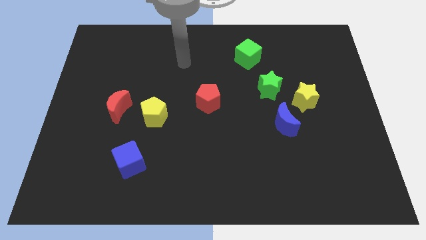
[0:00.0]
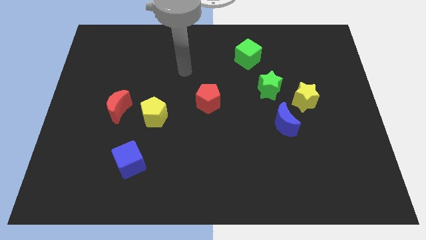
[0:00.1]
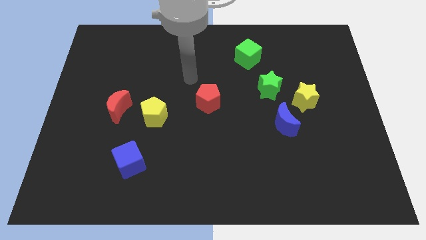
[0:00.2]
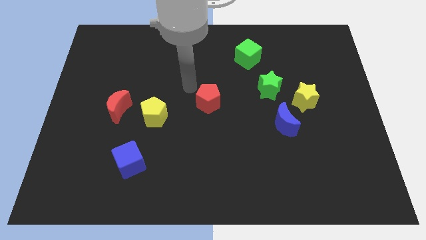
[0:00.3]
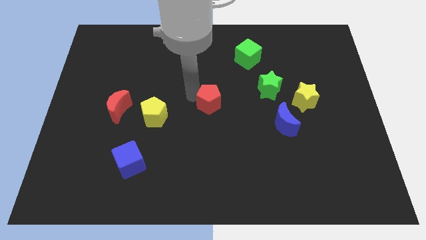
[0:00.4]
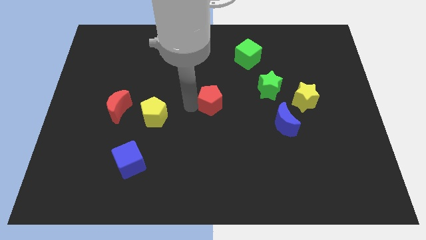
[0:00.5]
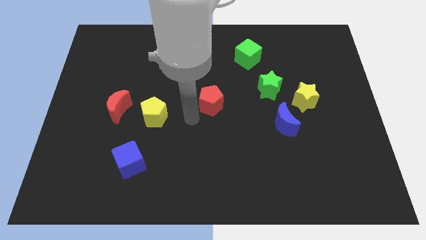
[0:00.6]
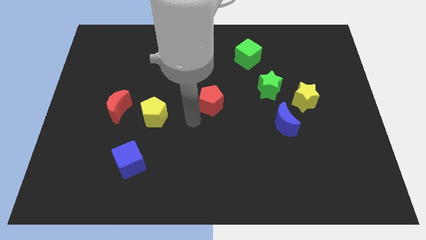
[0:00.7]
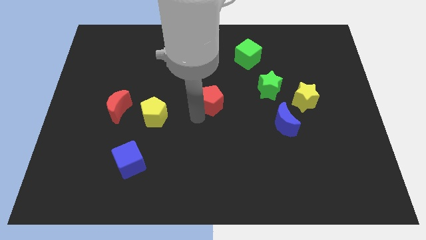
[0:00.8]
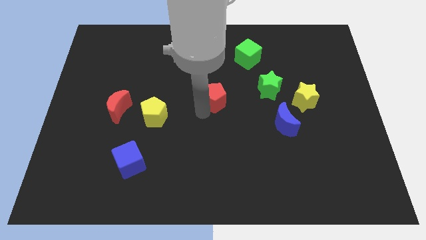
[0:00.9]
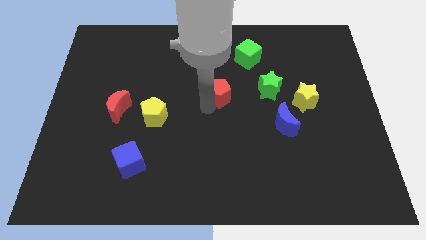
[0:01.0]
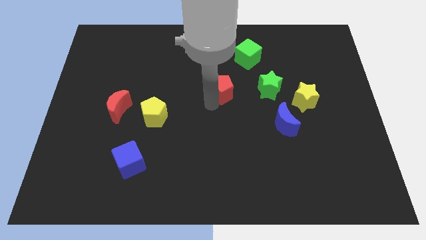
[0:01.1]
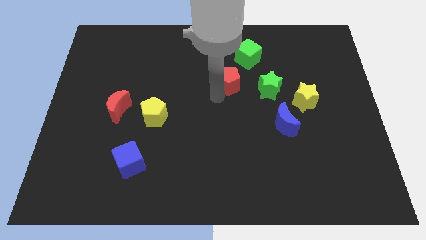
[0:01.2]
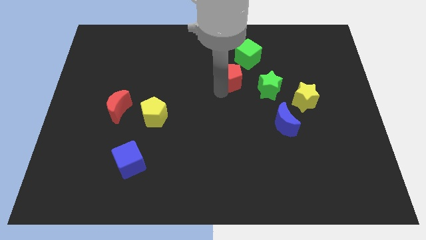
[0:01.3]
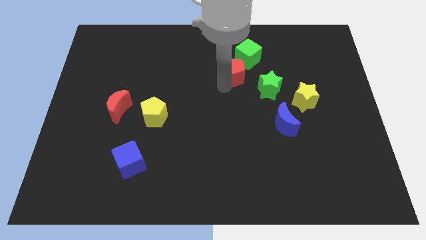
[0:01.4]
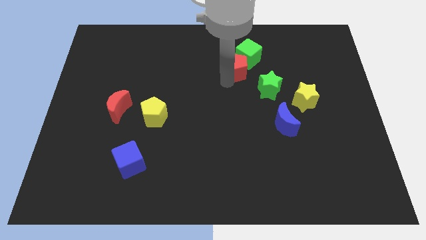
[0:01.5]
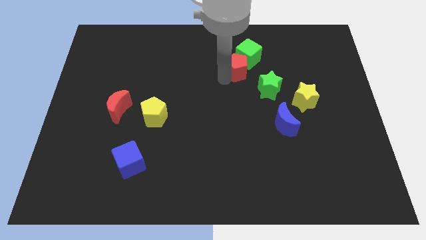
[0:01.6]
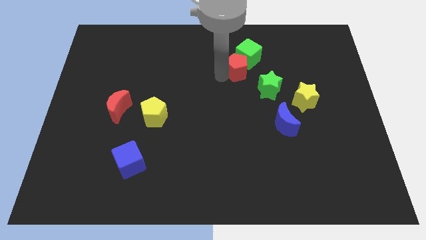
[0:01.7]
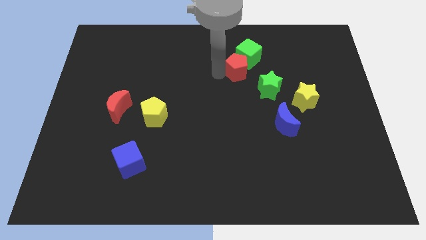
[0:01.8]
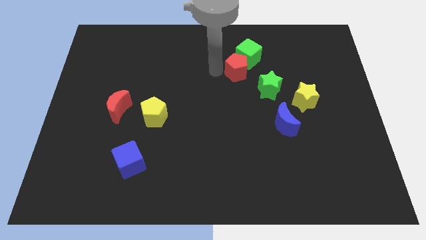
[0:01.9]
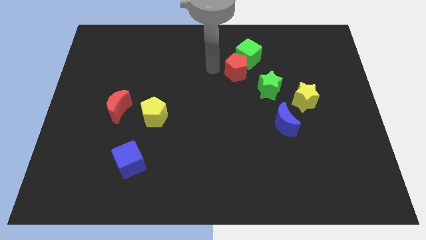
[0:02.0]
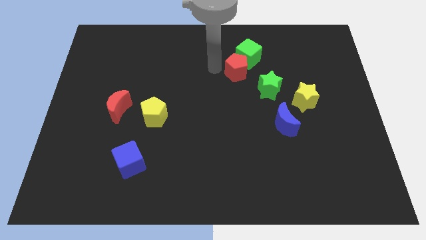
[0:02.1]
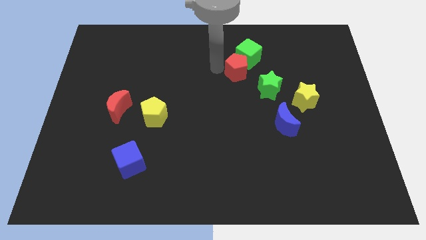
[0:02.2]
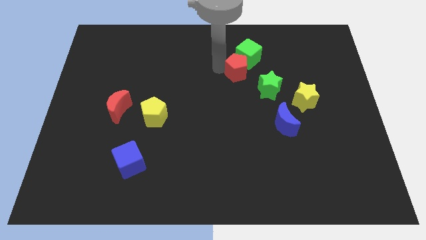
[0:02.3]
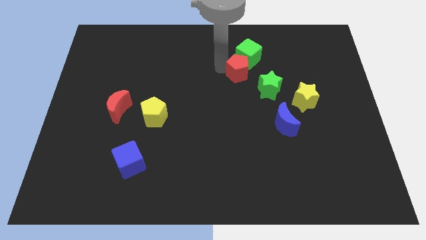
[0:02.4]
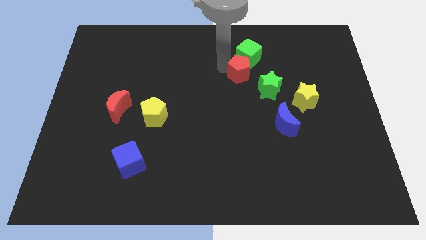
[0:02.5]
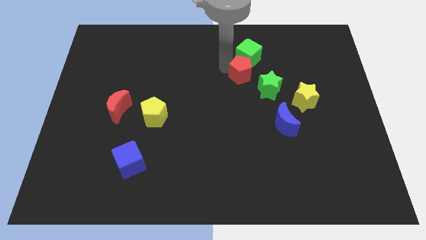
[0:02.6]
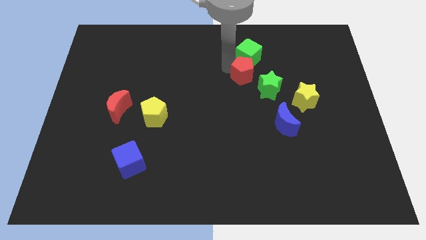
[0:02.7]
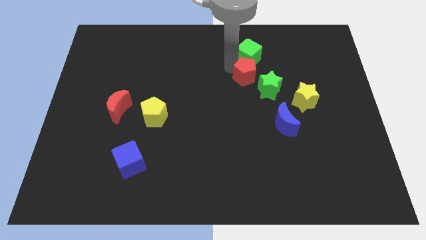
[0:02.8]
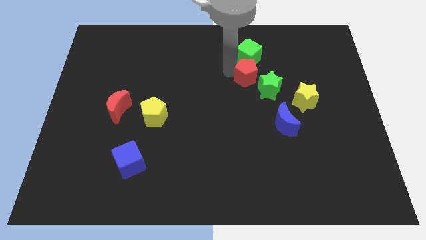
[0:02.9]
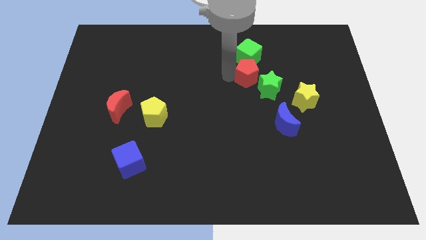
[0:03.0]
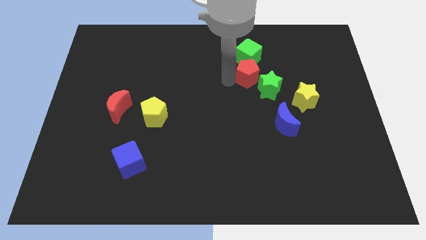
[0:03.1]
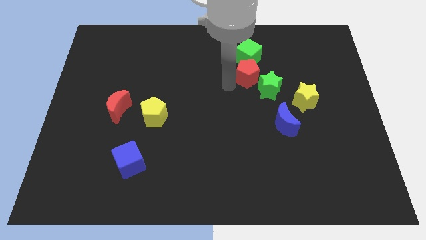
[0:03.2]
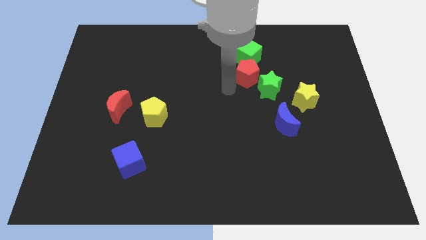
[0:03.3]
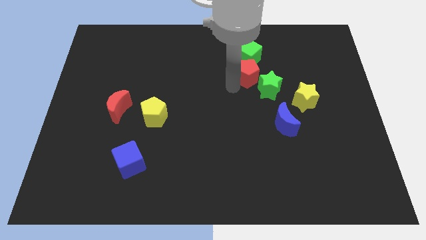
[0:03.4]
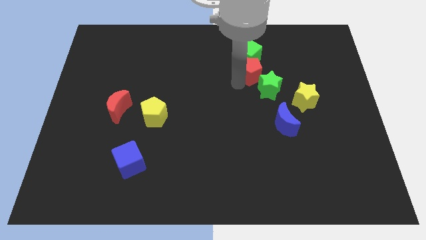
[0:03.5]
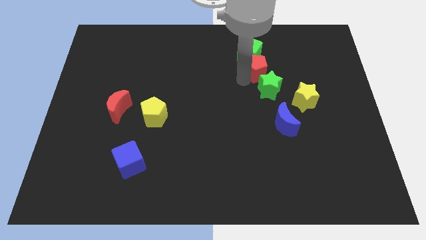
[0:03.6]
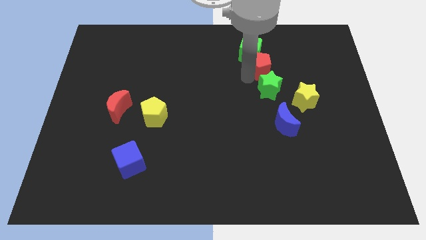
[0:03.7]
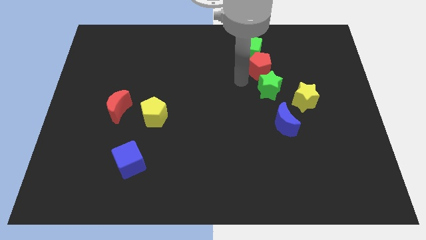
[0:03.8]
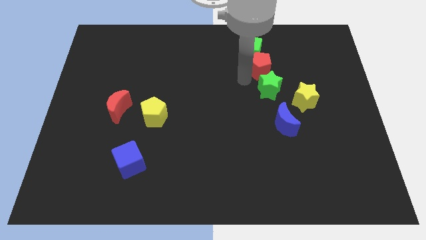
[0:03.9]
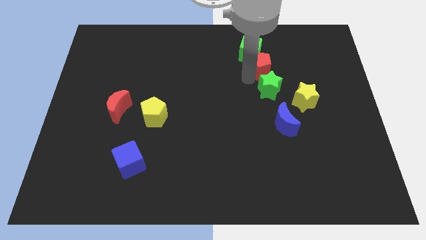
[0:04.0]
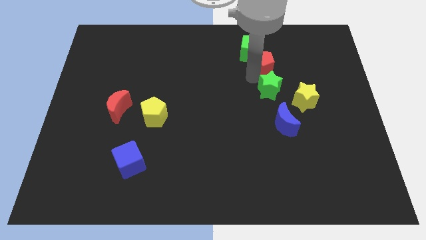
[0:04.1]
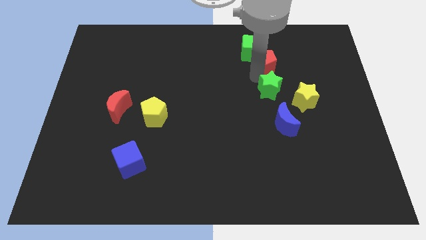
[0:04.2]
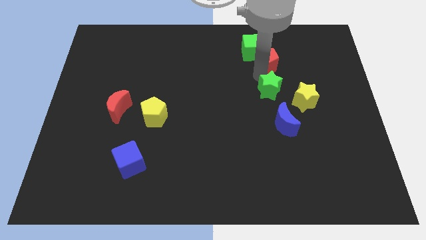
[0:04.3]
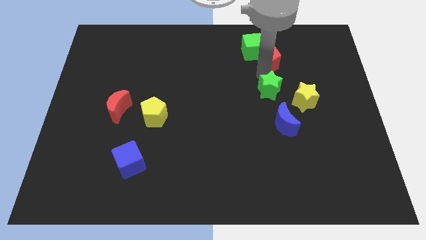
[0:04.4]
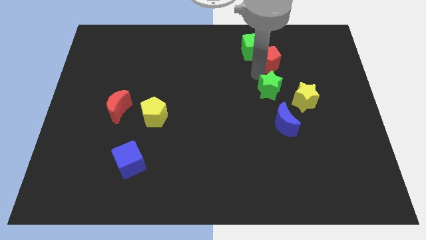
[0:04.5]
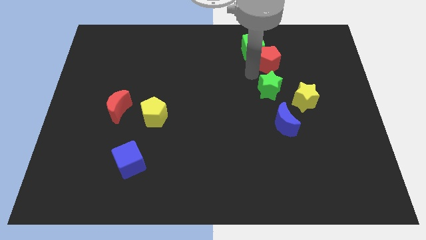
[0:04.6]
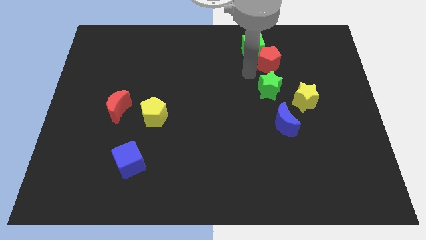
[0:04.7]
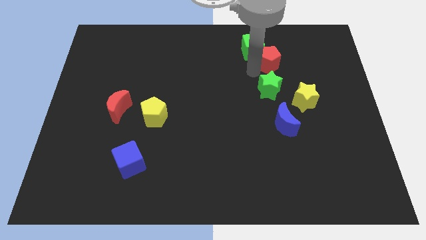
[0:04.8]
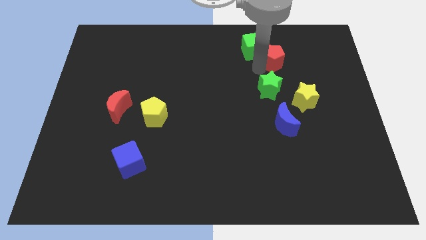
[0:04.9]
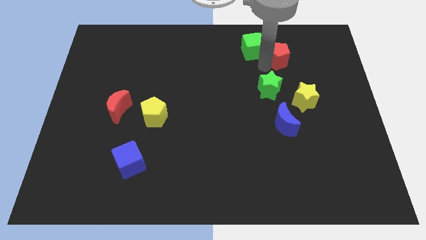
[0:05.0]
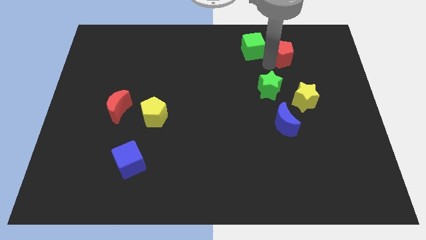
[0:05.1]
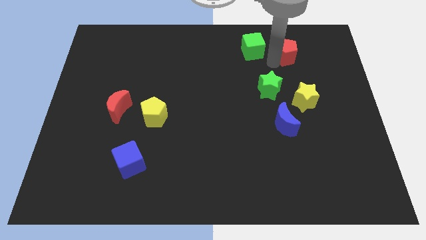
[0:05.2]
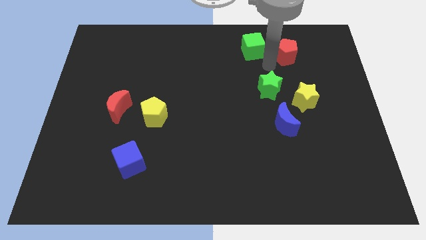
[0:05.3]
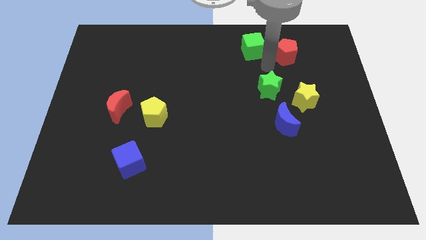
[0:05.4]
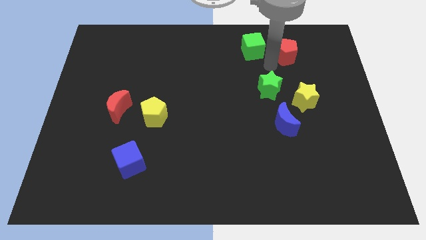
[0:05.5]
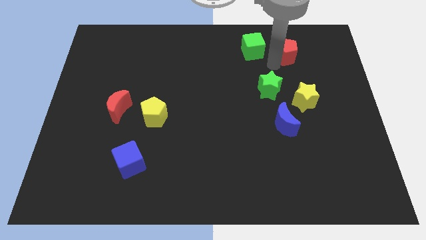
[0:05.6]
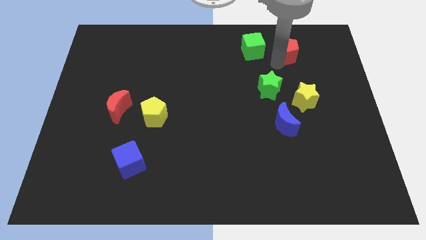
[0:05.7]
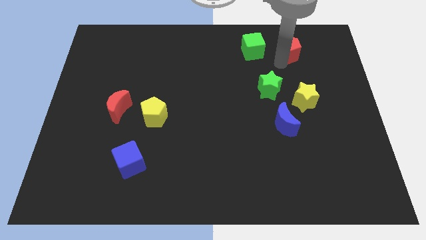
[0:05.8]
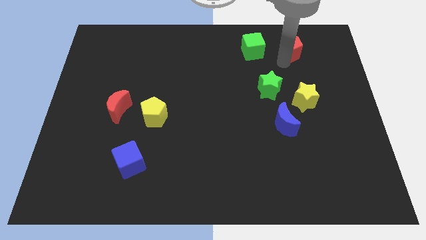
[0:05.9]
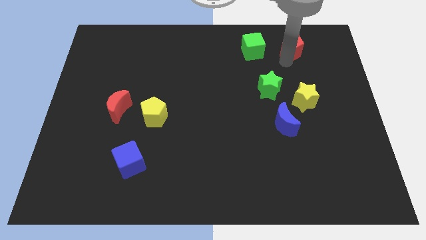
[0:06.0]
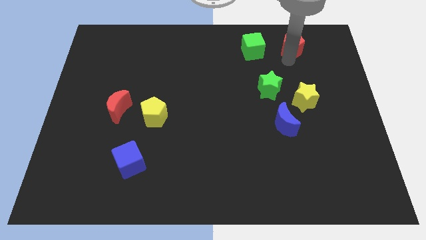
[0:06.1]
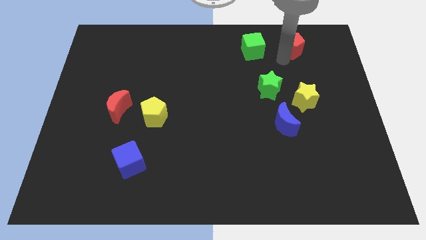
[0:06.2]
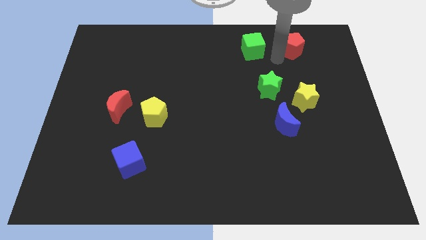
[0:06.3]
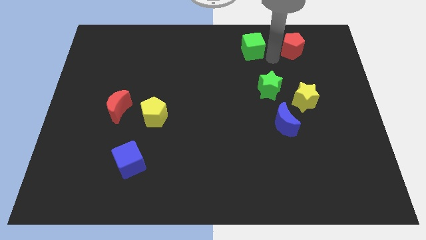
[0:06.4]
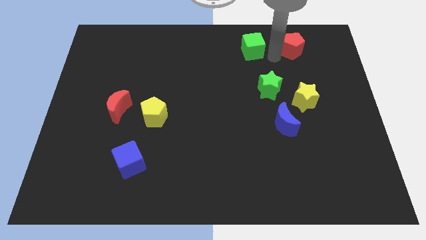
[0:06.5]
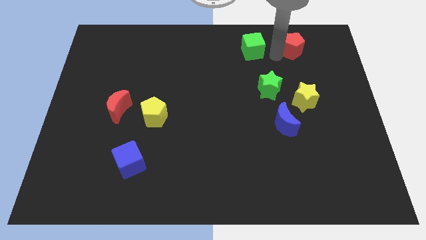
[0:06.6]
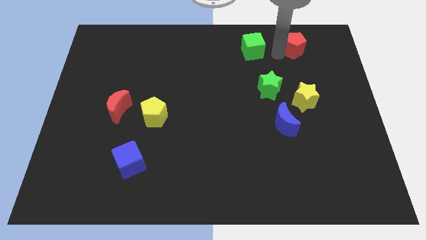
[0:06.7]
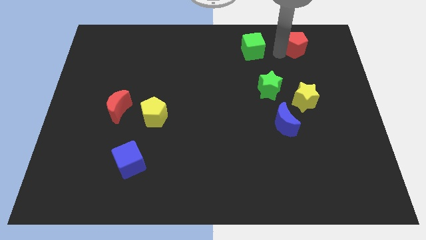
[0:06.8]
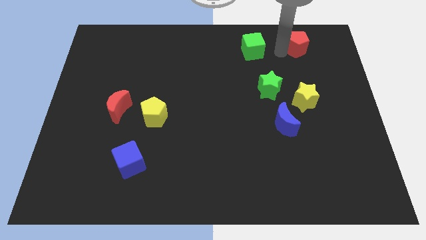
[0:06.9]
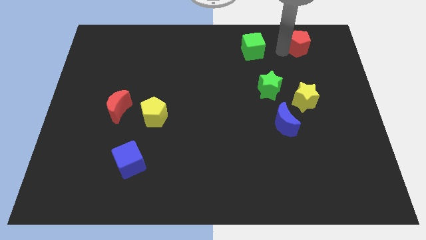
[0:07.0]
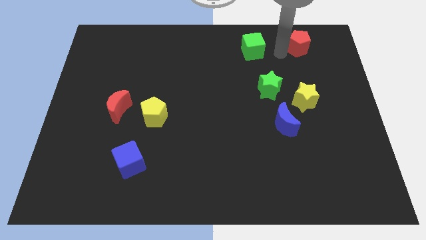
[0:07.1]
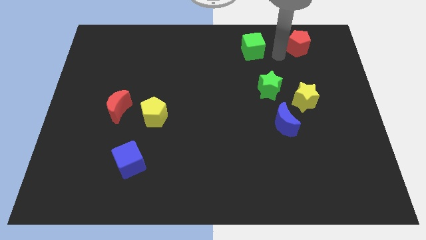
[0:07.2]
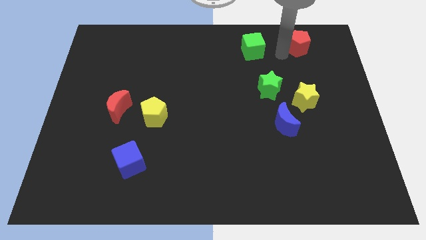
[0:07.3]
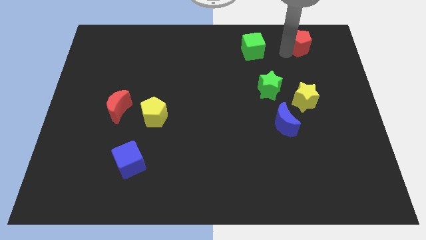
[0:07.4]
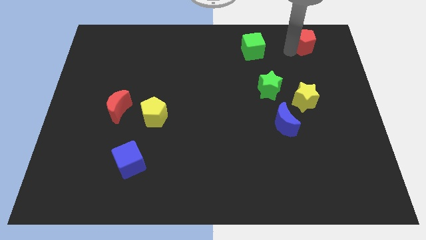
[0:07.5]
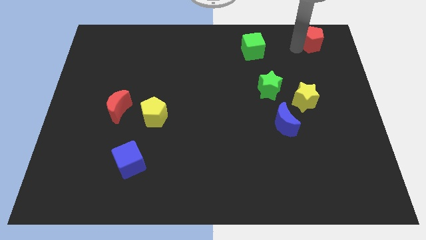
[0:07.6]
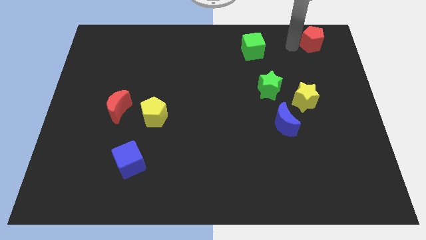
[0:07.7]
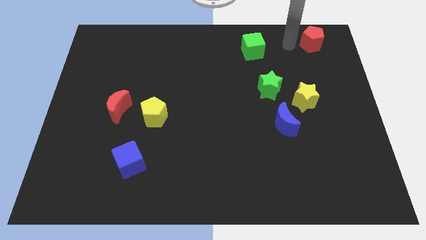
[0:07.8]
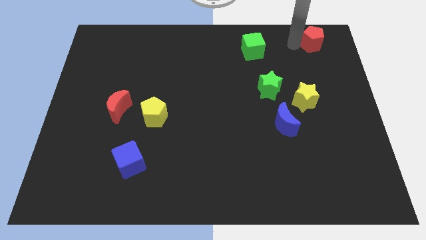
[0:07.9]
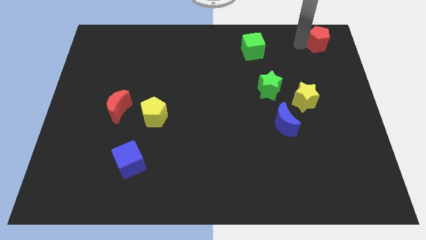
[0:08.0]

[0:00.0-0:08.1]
move the red pentagon to the top right of the board
